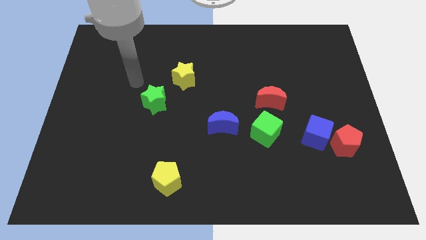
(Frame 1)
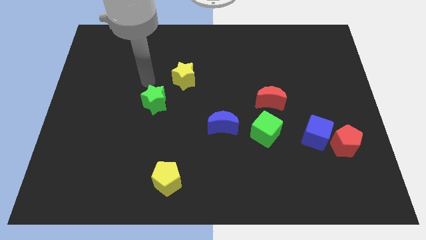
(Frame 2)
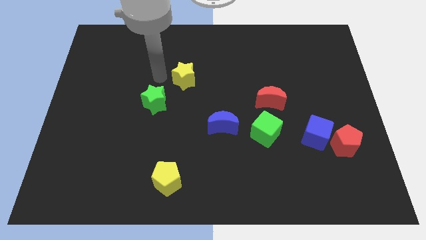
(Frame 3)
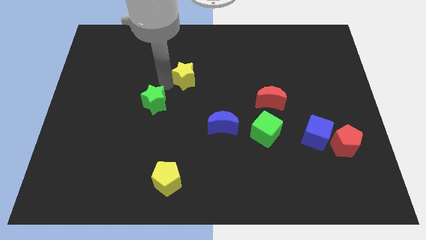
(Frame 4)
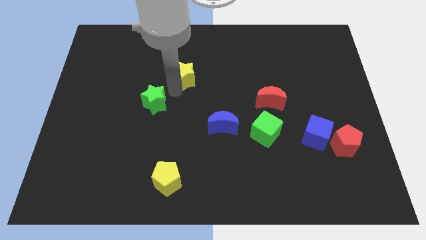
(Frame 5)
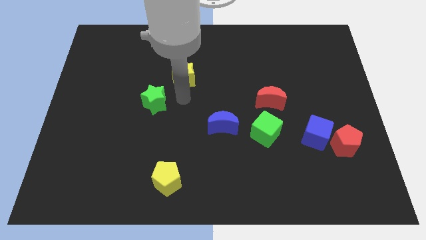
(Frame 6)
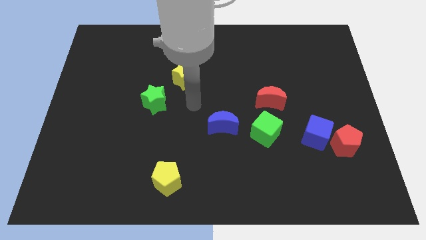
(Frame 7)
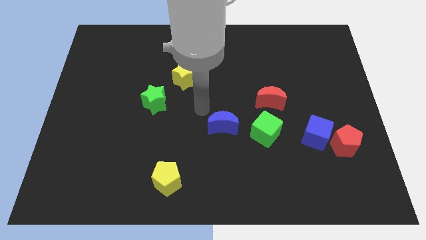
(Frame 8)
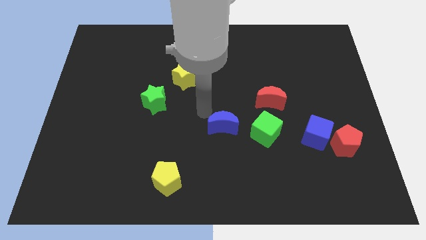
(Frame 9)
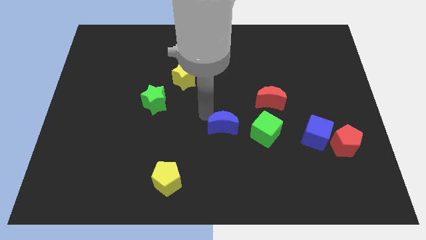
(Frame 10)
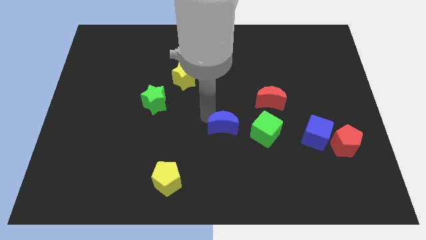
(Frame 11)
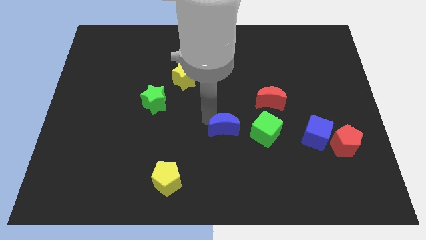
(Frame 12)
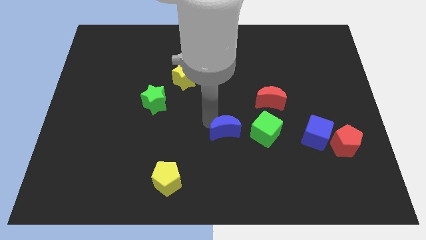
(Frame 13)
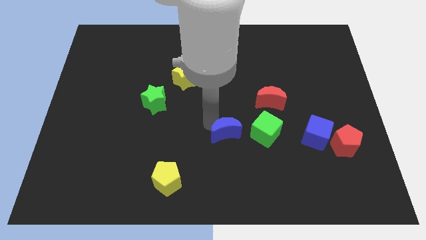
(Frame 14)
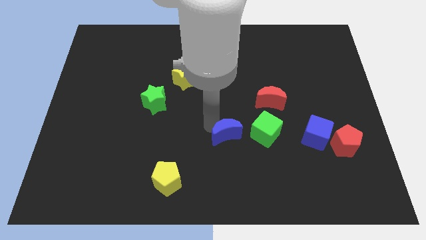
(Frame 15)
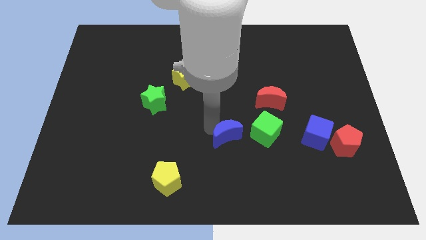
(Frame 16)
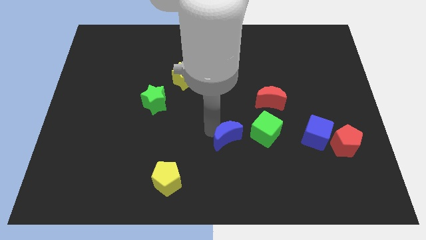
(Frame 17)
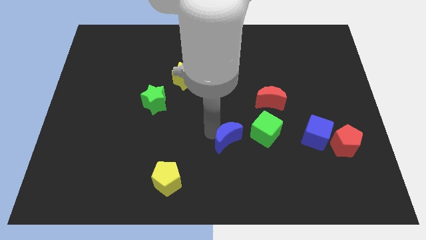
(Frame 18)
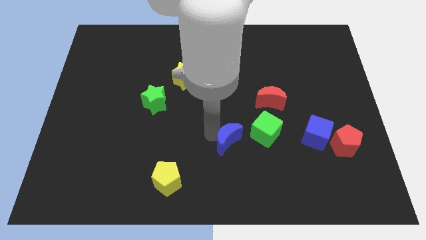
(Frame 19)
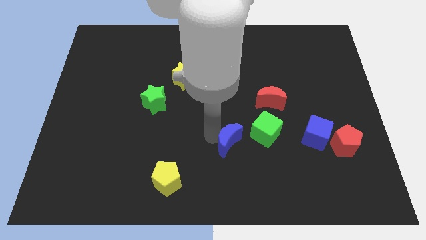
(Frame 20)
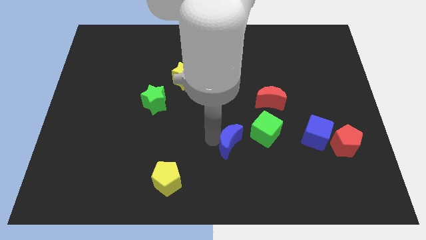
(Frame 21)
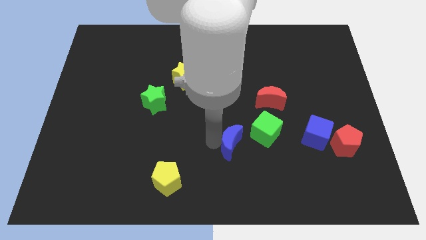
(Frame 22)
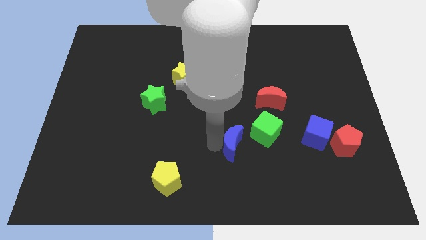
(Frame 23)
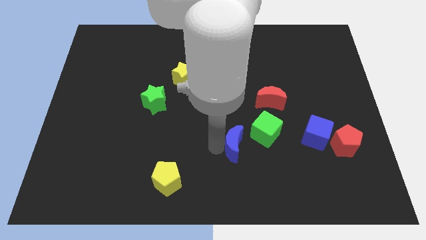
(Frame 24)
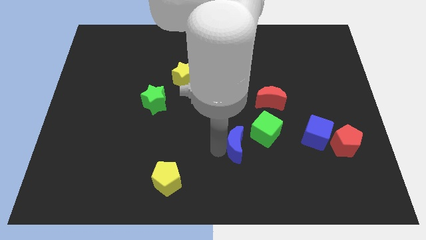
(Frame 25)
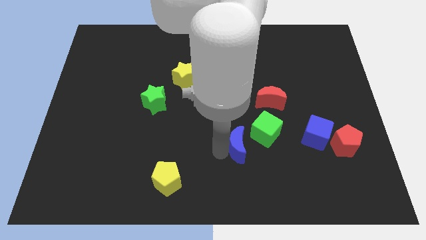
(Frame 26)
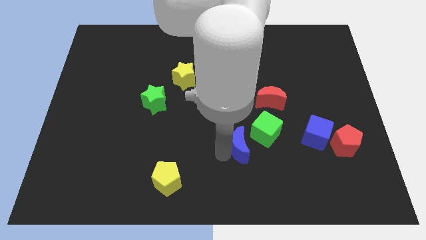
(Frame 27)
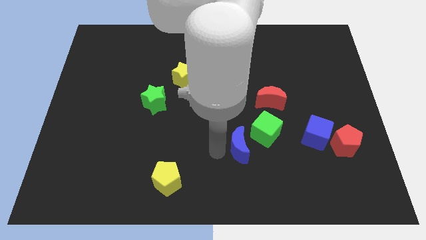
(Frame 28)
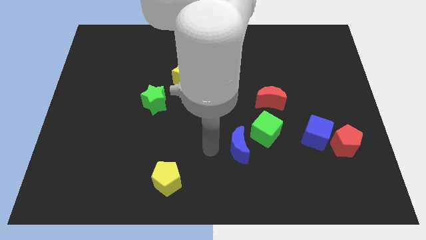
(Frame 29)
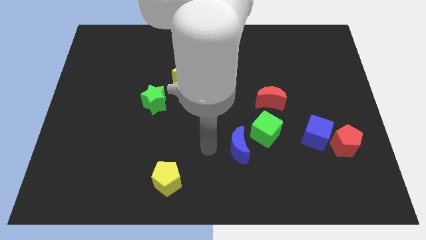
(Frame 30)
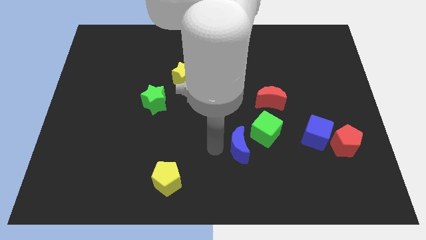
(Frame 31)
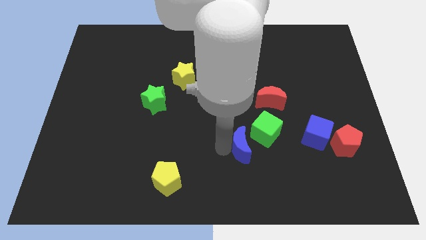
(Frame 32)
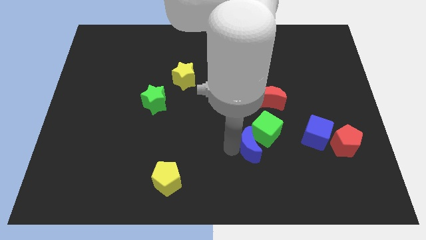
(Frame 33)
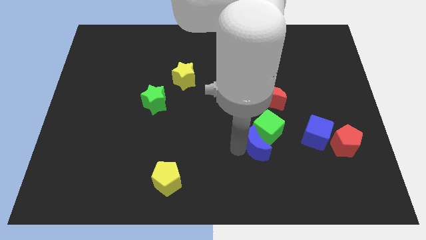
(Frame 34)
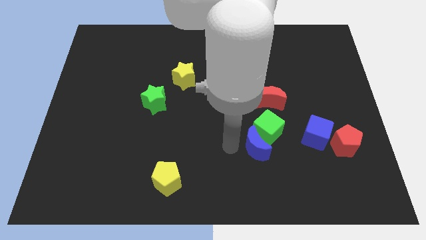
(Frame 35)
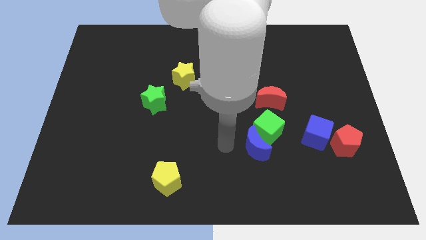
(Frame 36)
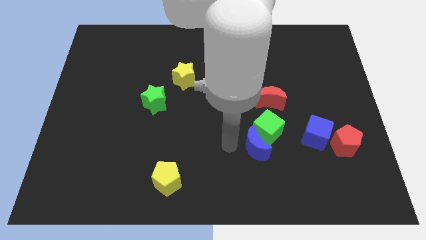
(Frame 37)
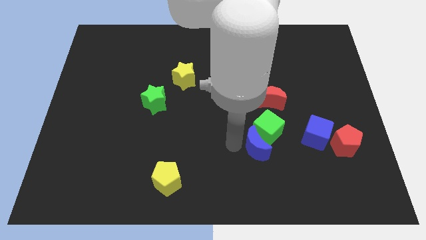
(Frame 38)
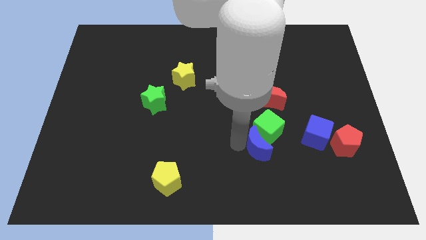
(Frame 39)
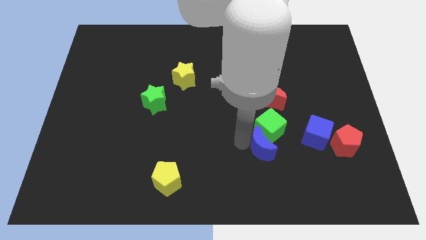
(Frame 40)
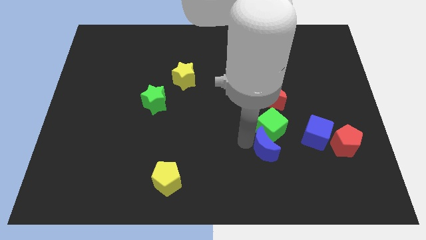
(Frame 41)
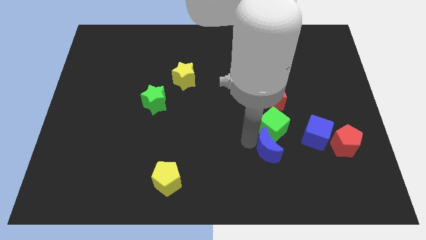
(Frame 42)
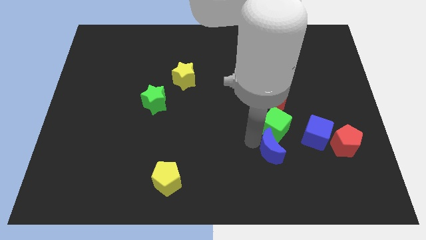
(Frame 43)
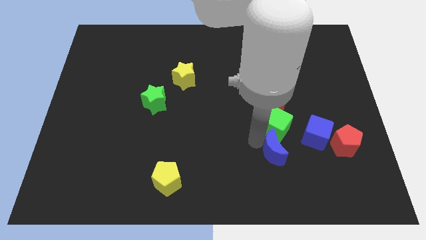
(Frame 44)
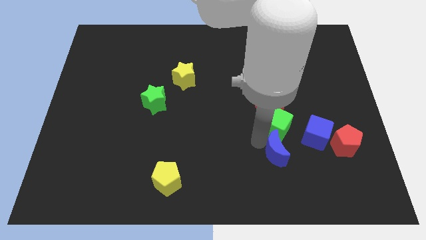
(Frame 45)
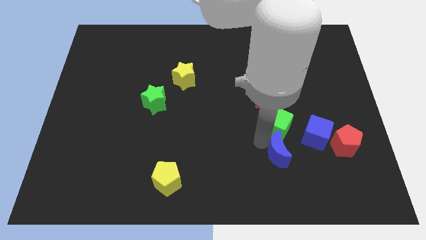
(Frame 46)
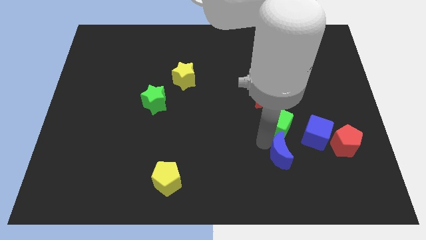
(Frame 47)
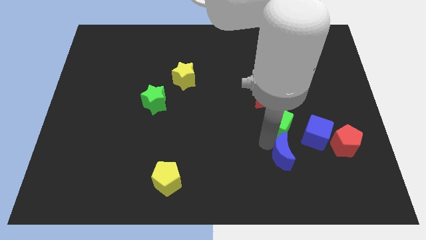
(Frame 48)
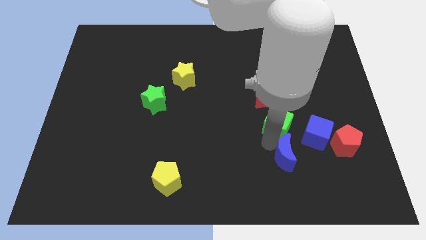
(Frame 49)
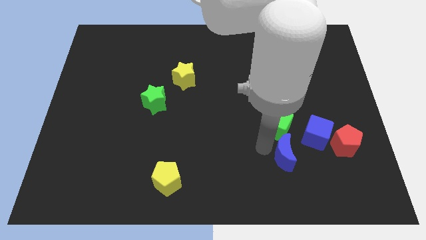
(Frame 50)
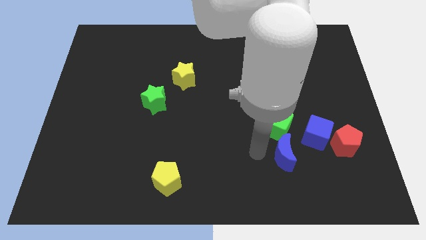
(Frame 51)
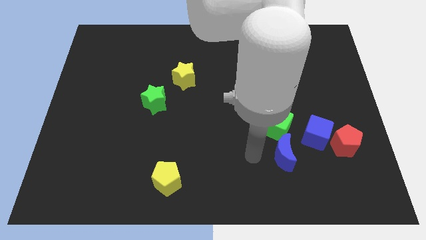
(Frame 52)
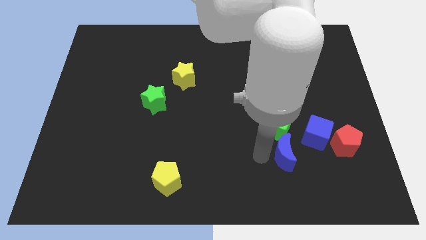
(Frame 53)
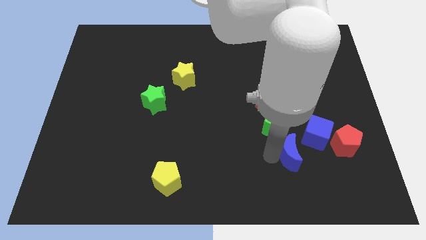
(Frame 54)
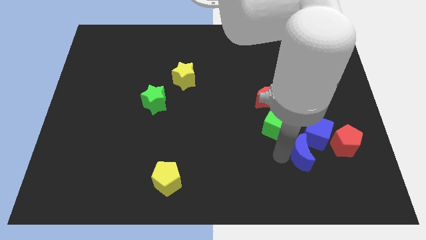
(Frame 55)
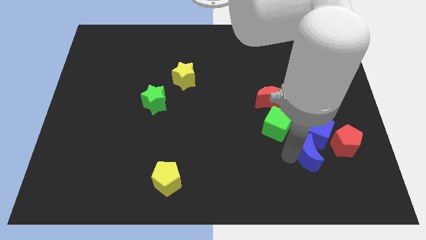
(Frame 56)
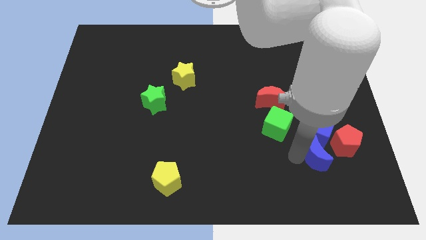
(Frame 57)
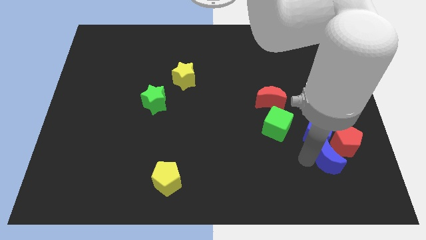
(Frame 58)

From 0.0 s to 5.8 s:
push the blue moon to the red pentagon

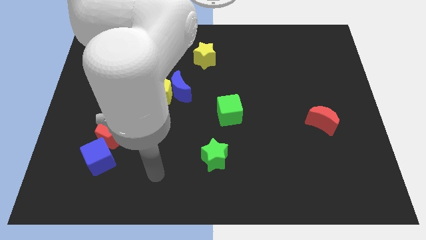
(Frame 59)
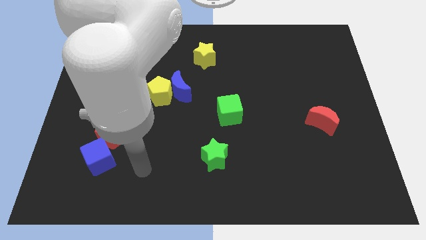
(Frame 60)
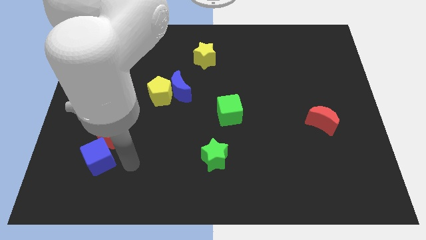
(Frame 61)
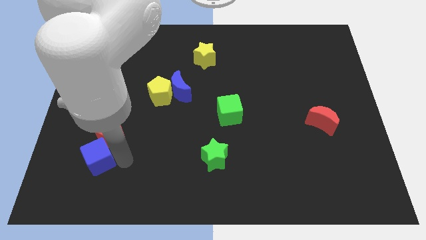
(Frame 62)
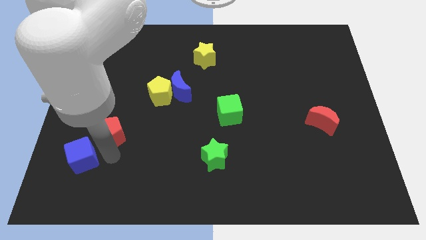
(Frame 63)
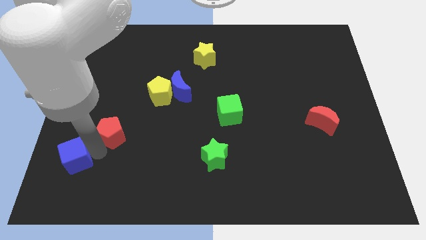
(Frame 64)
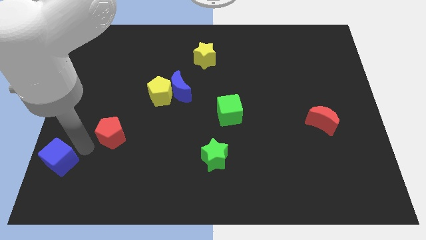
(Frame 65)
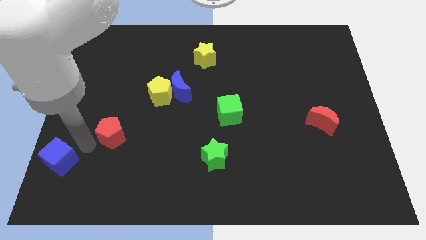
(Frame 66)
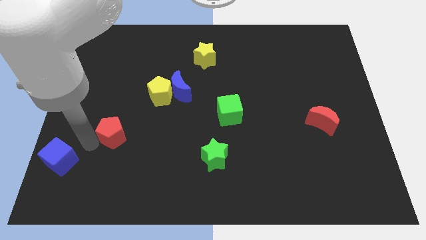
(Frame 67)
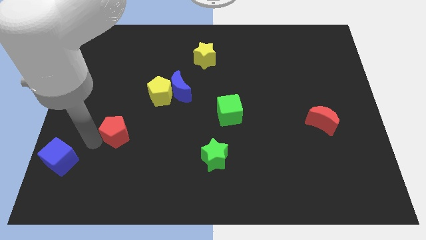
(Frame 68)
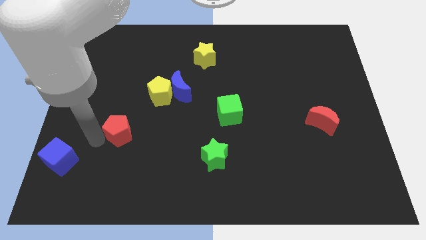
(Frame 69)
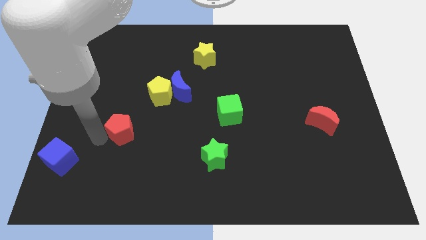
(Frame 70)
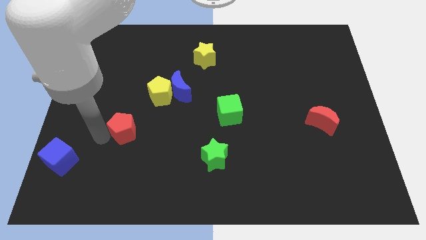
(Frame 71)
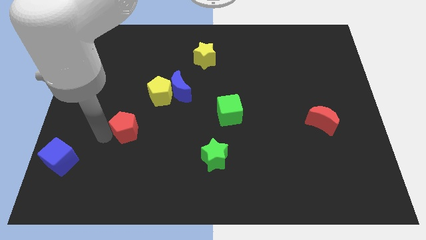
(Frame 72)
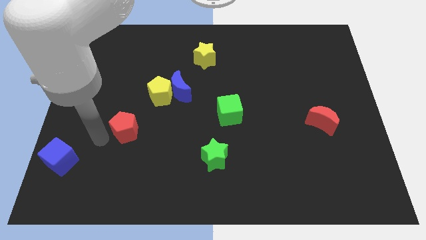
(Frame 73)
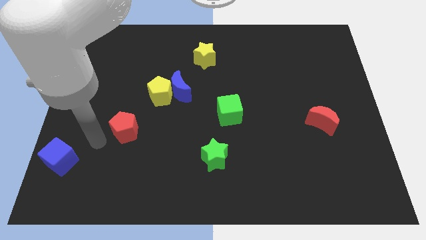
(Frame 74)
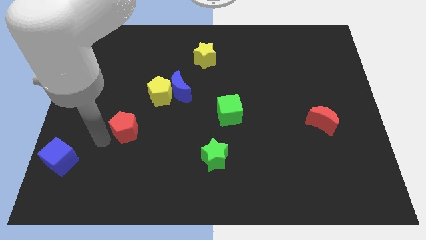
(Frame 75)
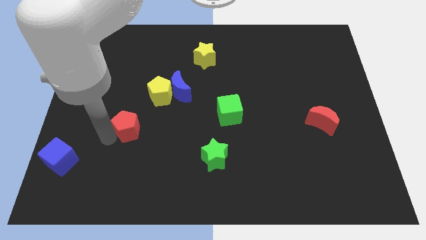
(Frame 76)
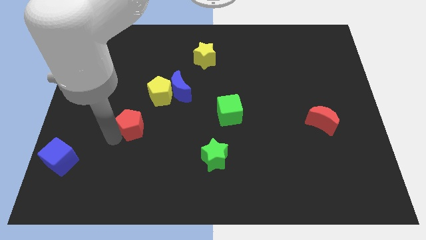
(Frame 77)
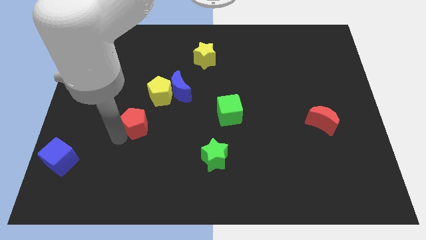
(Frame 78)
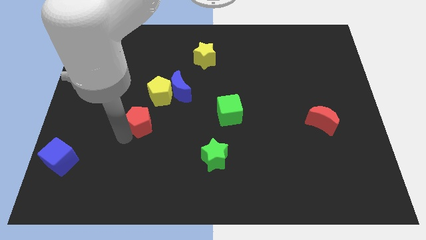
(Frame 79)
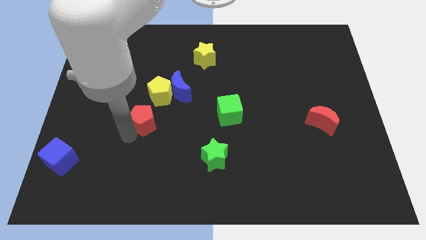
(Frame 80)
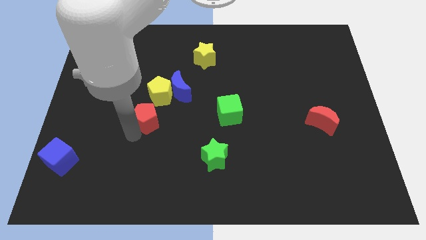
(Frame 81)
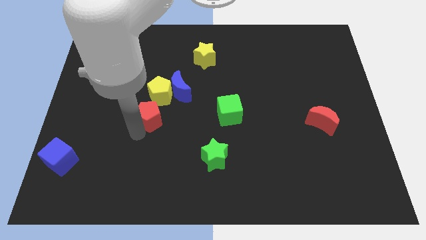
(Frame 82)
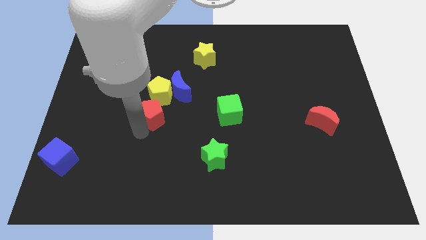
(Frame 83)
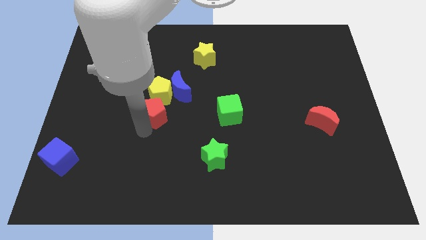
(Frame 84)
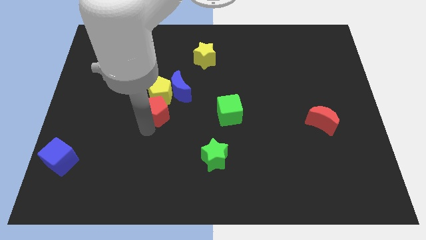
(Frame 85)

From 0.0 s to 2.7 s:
slide the red pentagon towards the yellow pentagon
